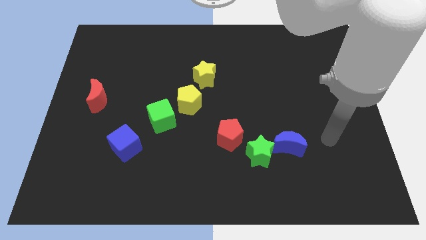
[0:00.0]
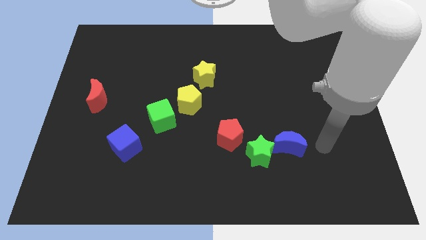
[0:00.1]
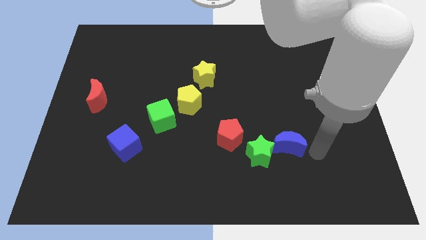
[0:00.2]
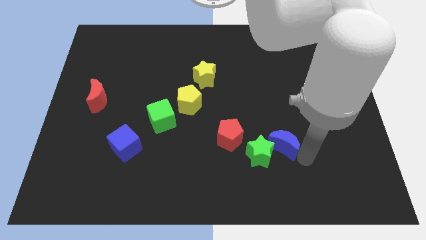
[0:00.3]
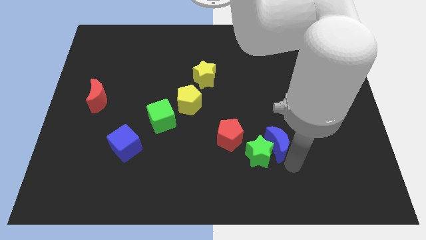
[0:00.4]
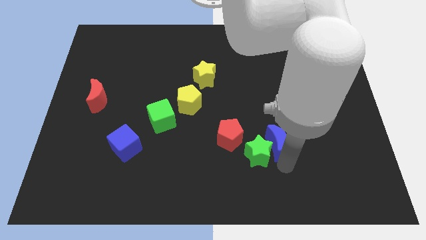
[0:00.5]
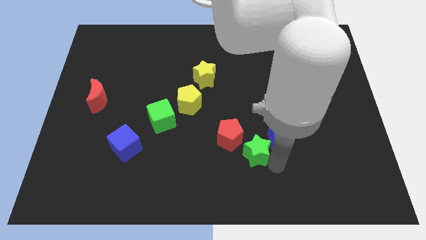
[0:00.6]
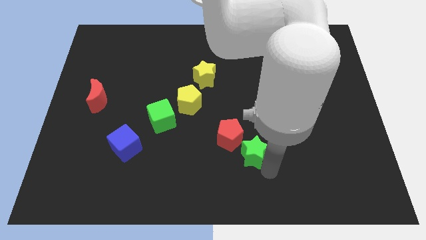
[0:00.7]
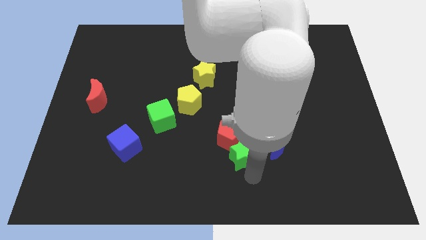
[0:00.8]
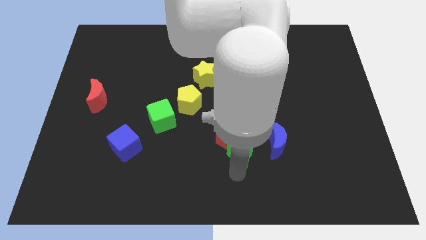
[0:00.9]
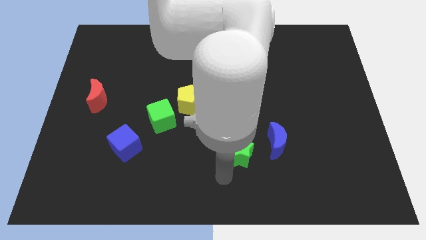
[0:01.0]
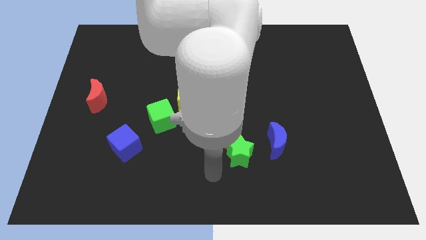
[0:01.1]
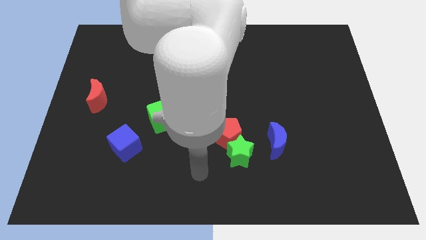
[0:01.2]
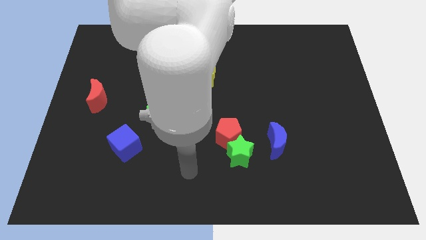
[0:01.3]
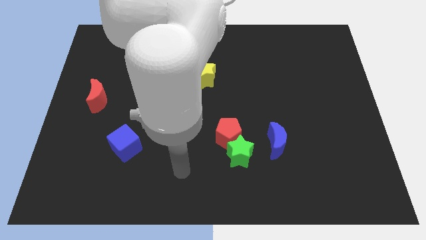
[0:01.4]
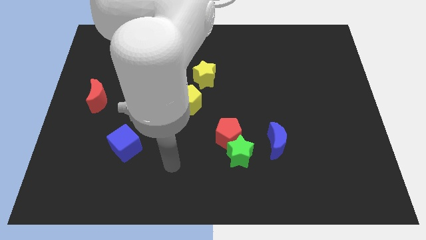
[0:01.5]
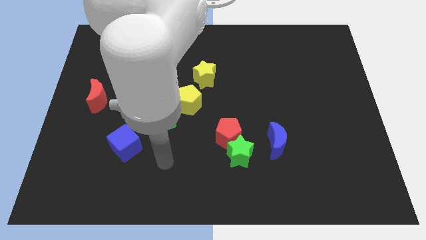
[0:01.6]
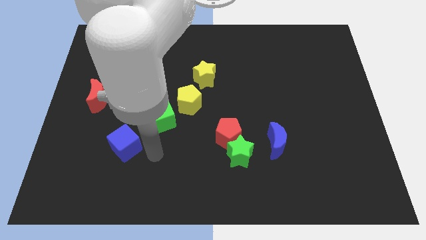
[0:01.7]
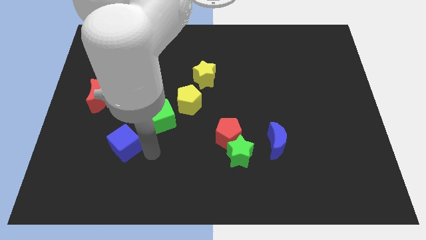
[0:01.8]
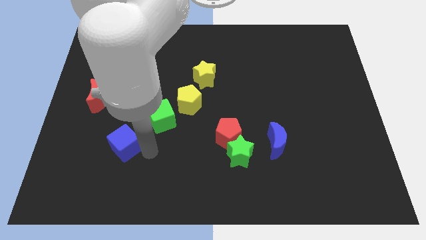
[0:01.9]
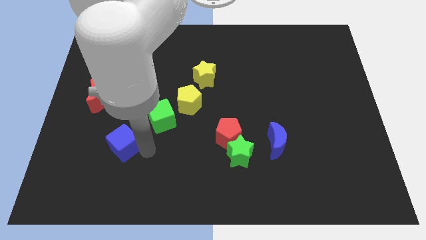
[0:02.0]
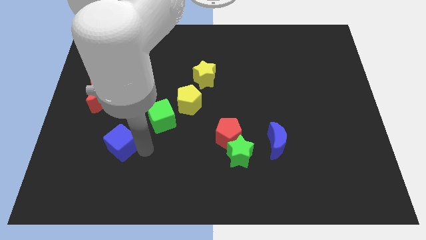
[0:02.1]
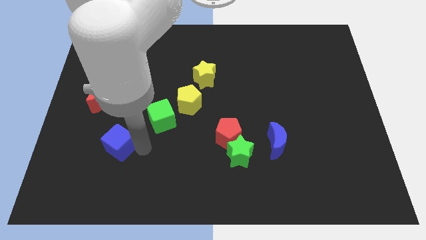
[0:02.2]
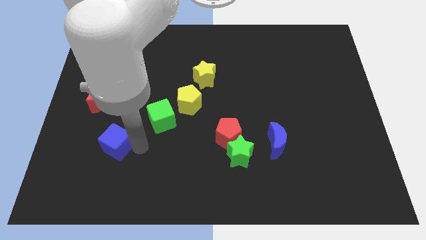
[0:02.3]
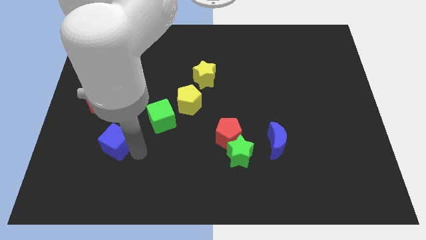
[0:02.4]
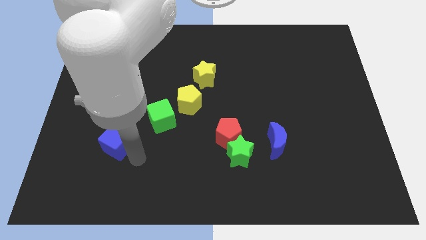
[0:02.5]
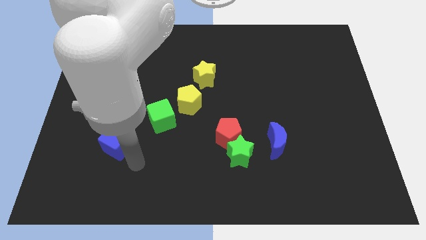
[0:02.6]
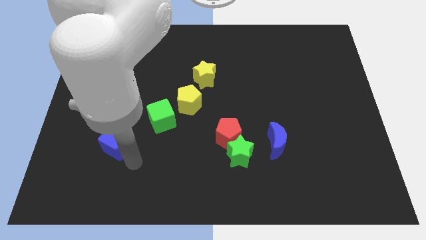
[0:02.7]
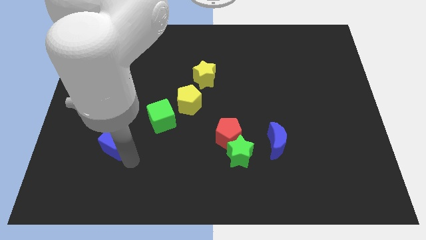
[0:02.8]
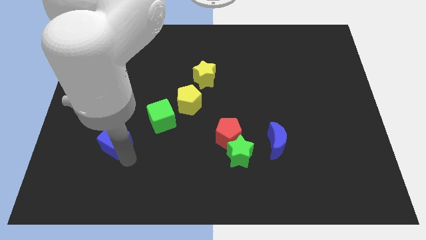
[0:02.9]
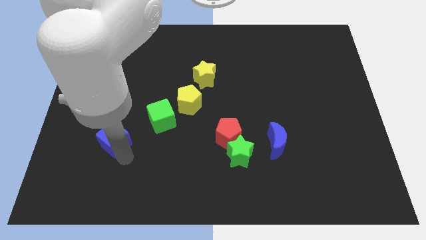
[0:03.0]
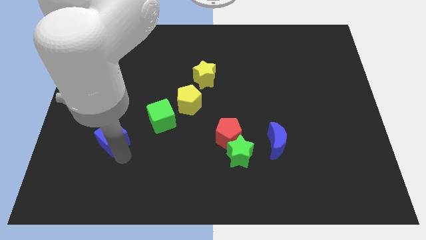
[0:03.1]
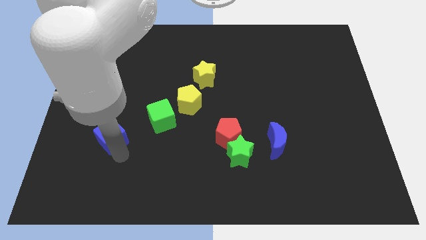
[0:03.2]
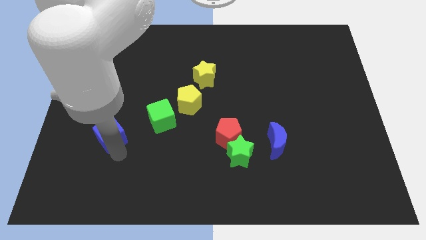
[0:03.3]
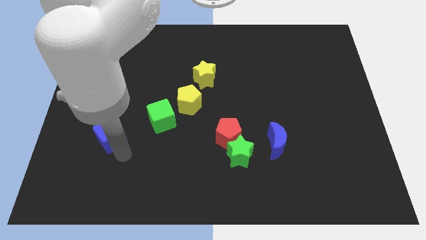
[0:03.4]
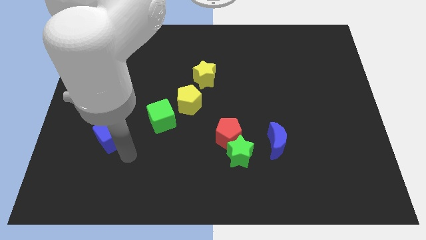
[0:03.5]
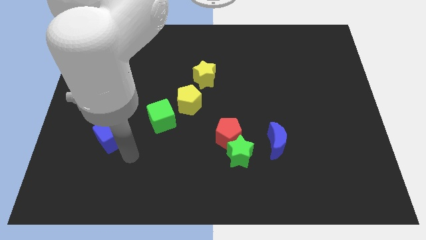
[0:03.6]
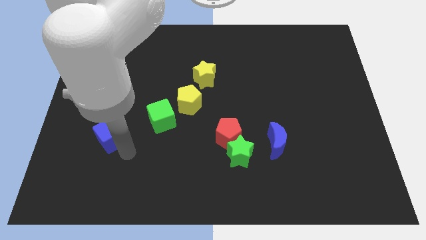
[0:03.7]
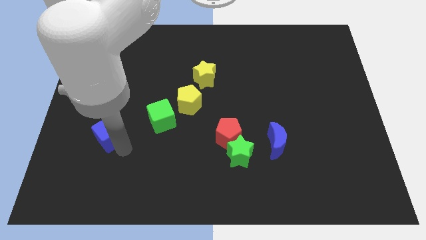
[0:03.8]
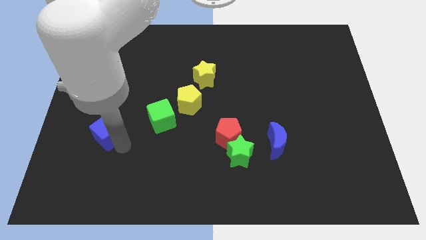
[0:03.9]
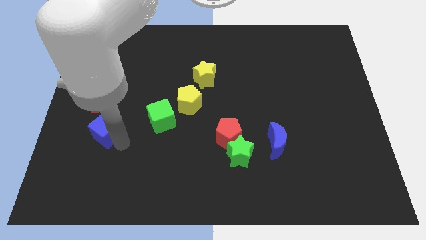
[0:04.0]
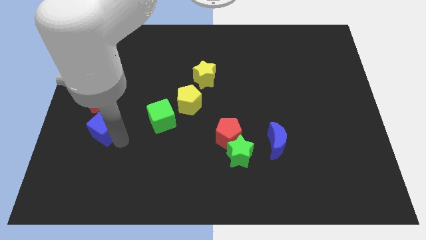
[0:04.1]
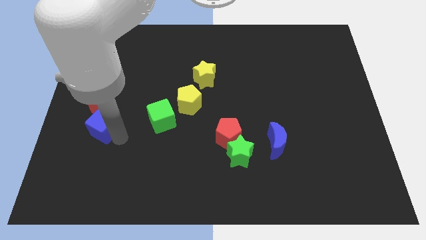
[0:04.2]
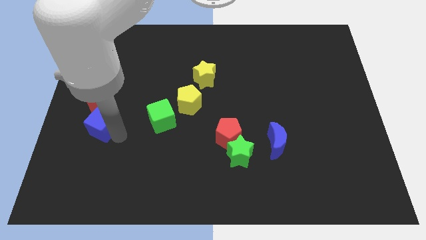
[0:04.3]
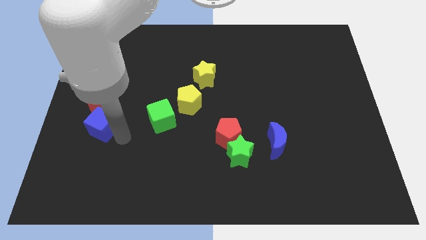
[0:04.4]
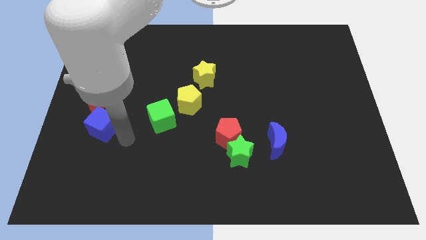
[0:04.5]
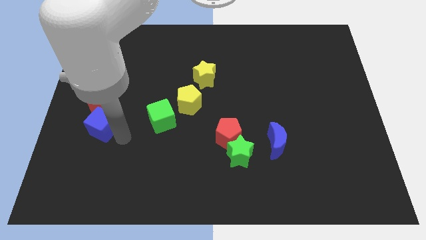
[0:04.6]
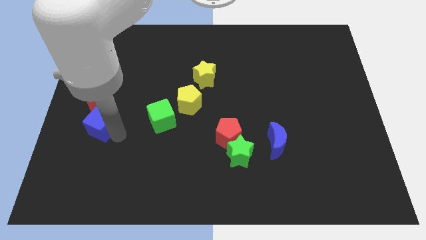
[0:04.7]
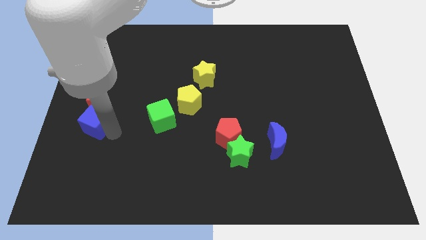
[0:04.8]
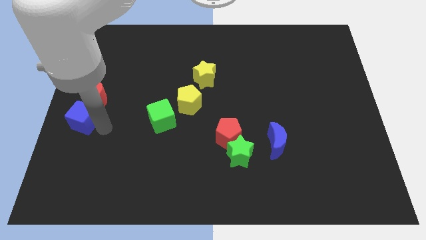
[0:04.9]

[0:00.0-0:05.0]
put the blue cube to the left side

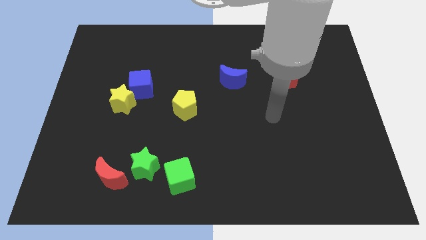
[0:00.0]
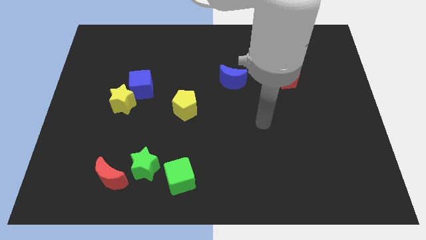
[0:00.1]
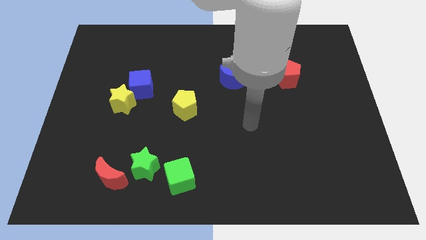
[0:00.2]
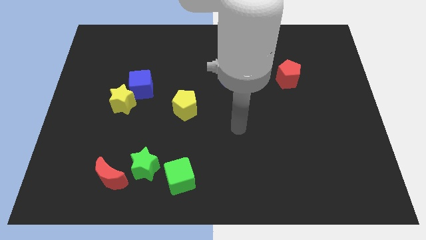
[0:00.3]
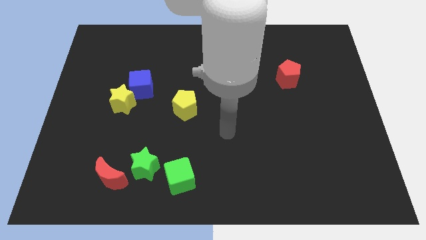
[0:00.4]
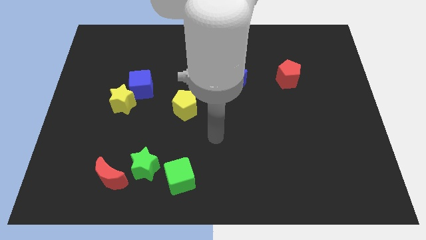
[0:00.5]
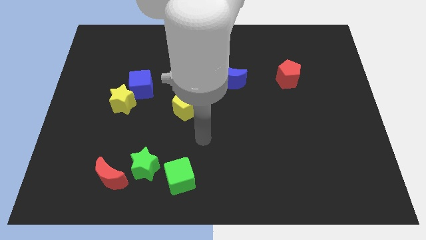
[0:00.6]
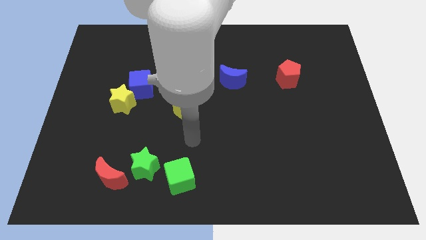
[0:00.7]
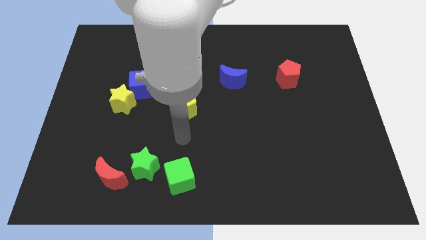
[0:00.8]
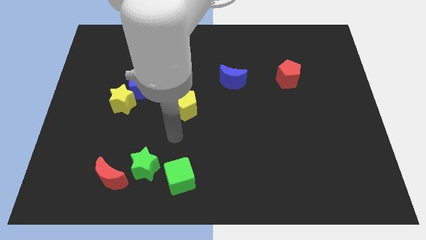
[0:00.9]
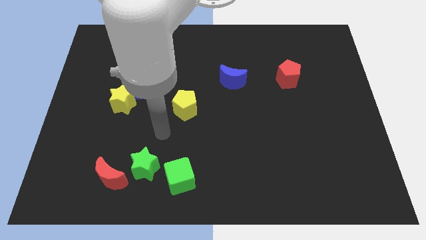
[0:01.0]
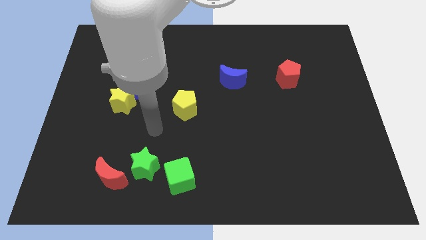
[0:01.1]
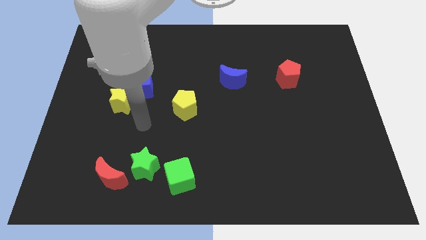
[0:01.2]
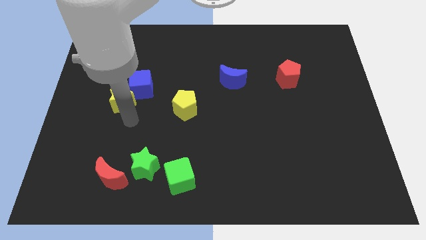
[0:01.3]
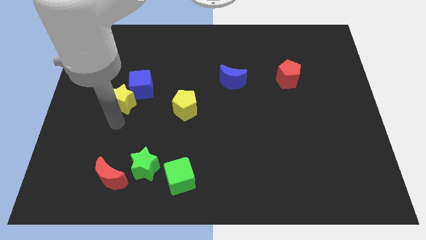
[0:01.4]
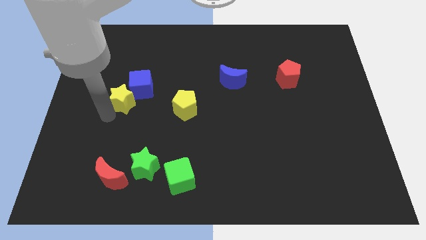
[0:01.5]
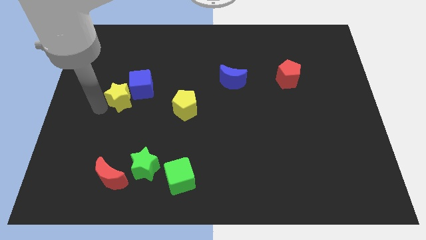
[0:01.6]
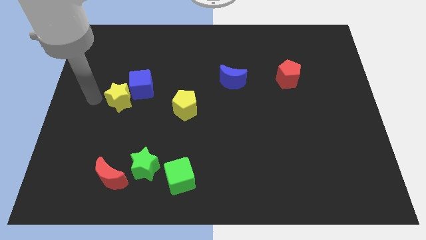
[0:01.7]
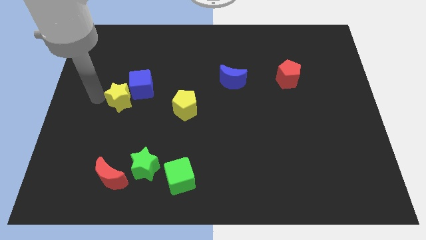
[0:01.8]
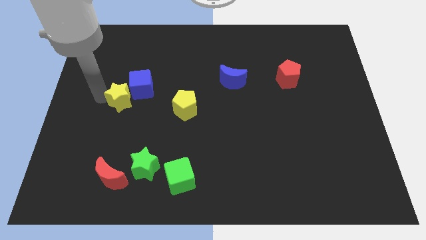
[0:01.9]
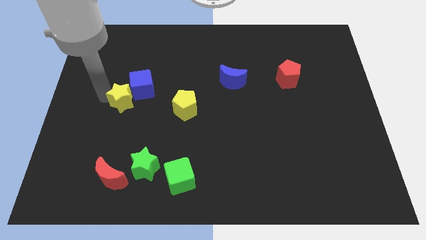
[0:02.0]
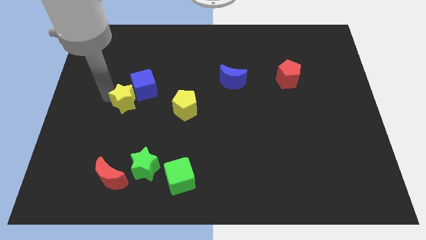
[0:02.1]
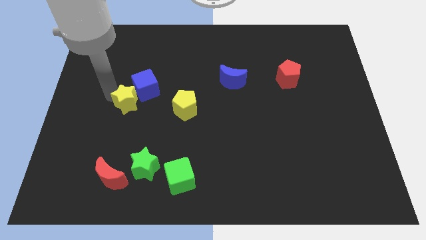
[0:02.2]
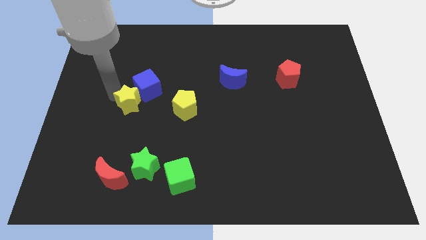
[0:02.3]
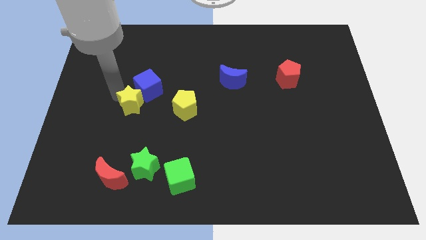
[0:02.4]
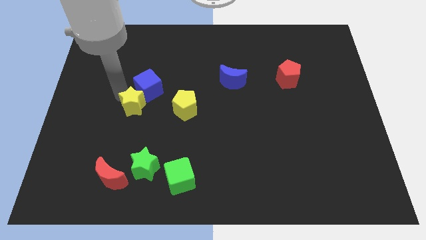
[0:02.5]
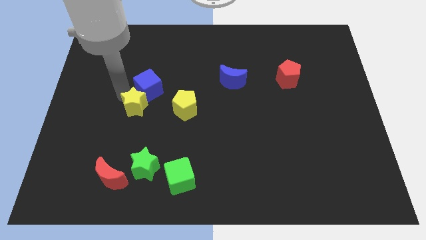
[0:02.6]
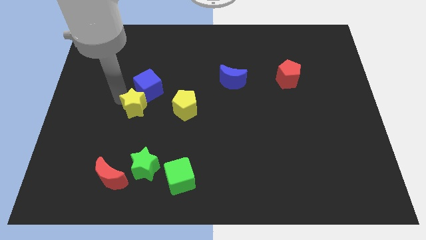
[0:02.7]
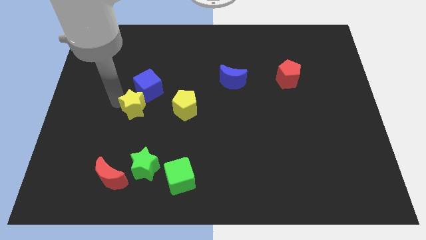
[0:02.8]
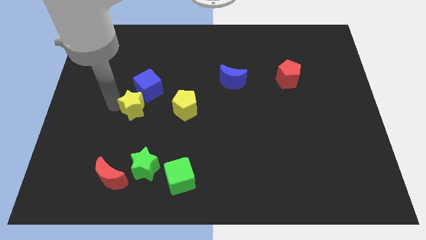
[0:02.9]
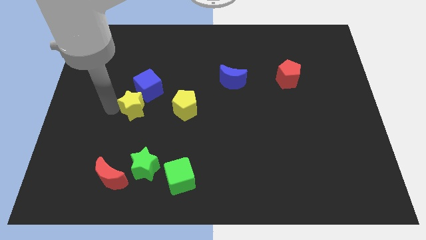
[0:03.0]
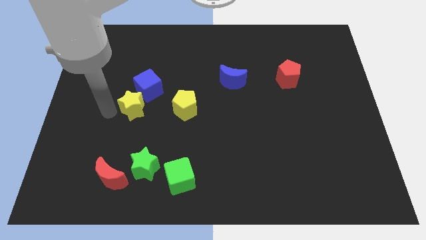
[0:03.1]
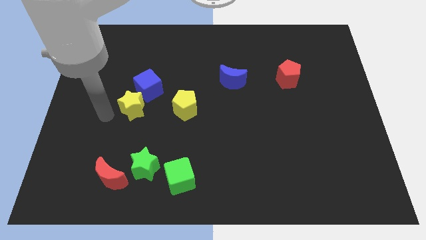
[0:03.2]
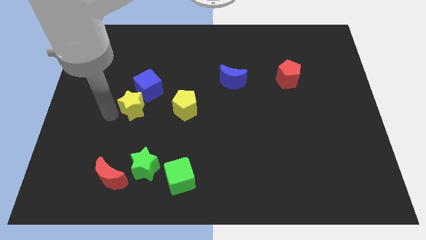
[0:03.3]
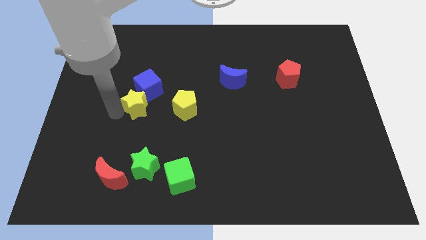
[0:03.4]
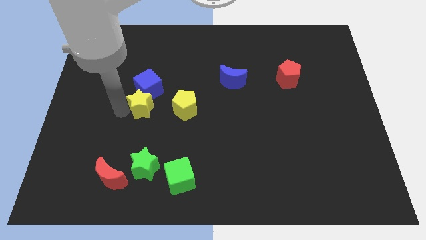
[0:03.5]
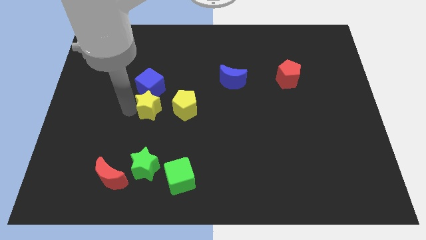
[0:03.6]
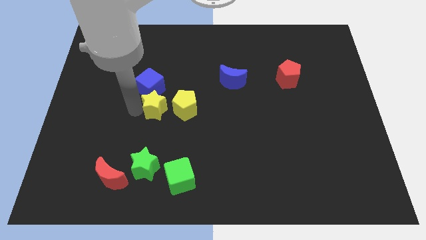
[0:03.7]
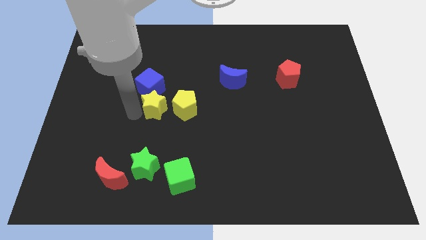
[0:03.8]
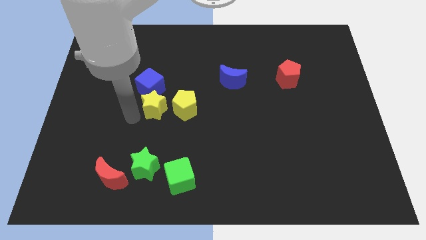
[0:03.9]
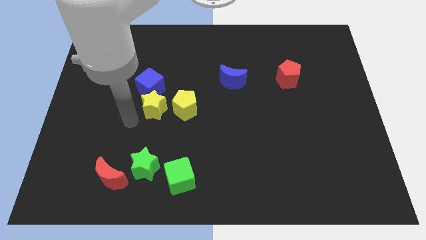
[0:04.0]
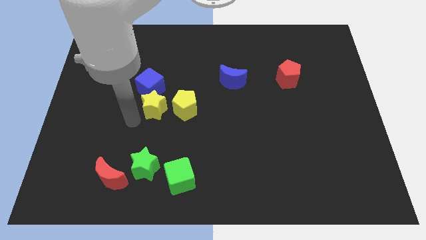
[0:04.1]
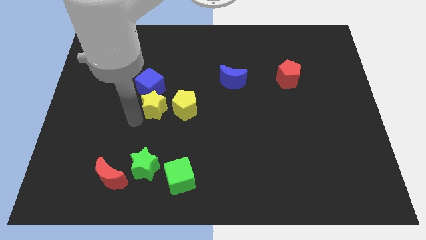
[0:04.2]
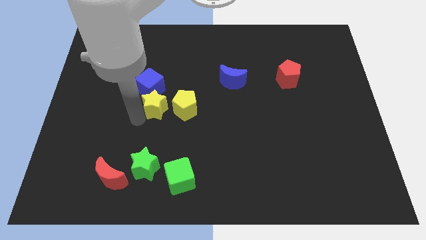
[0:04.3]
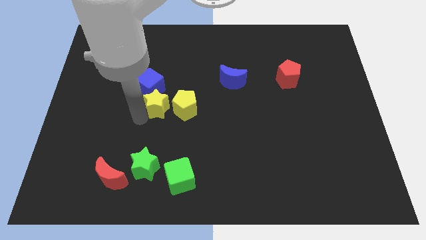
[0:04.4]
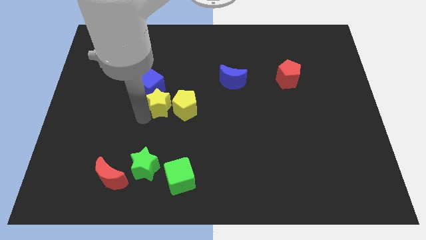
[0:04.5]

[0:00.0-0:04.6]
slide the yellow star to the middle
